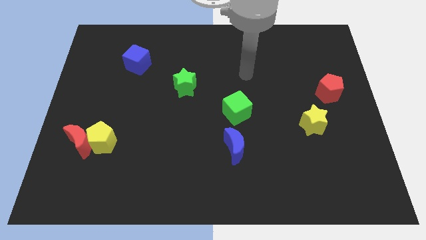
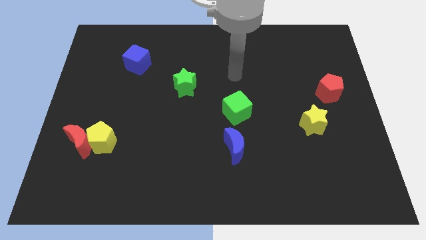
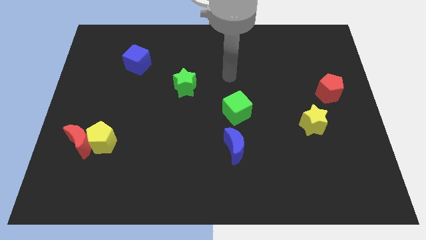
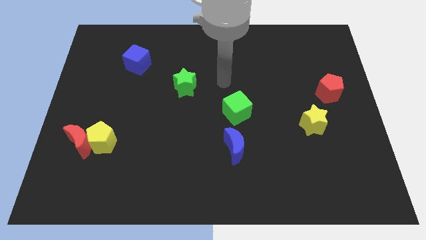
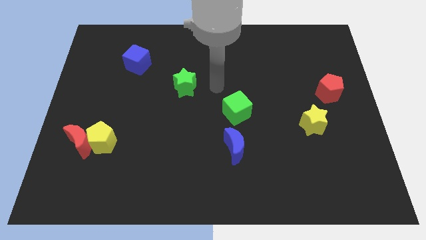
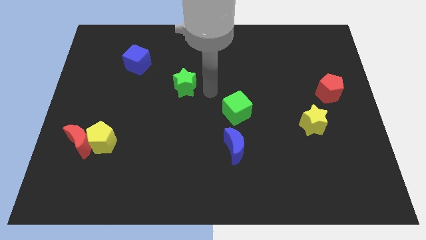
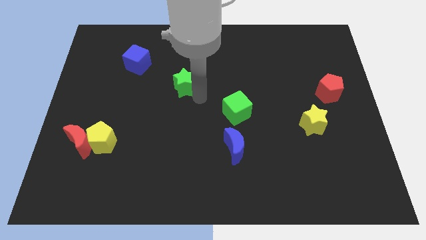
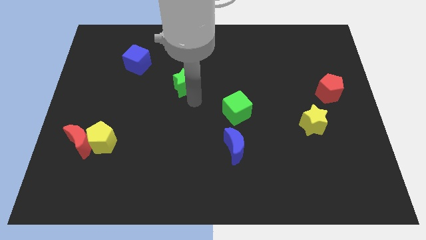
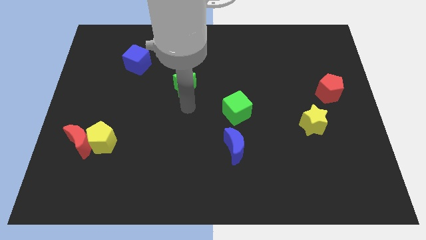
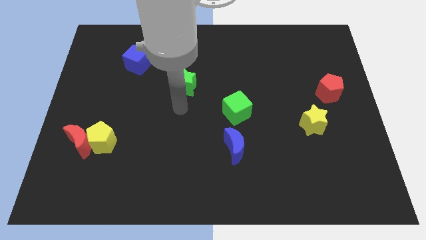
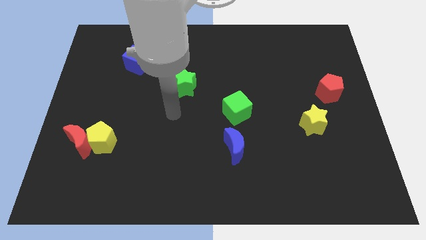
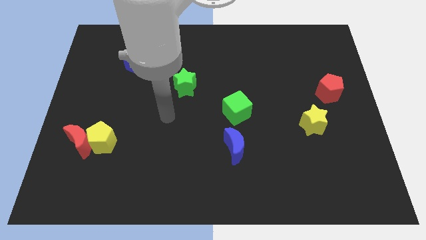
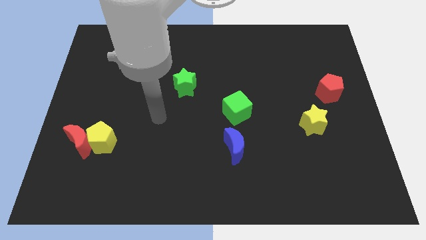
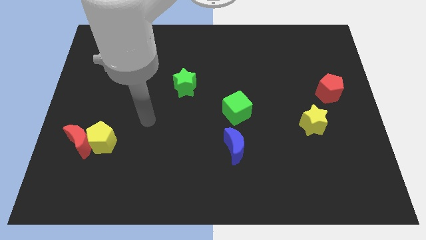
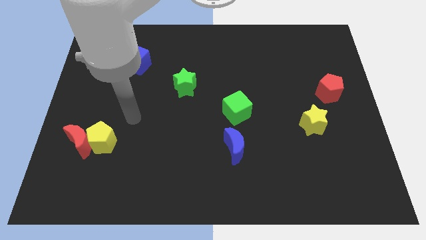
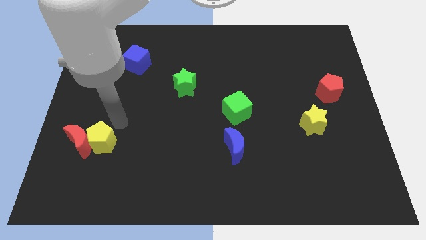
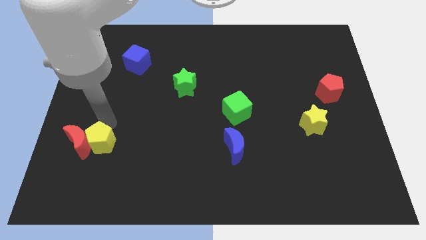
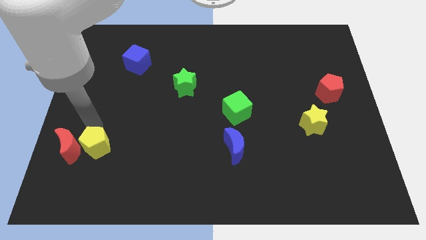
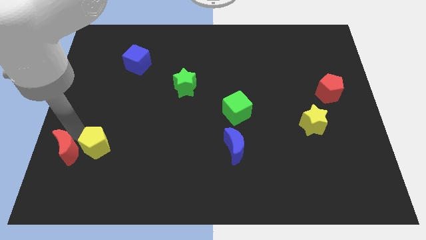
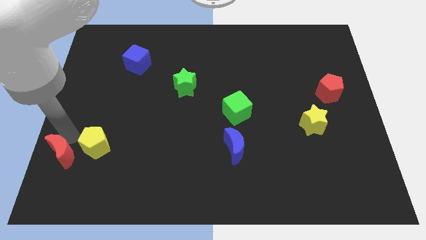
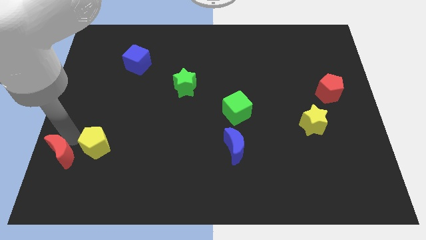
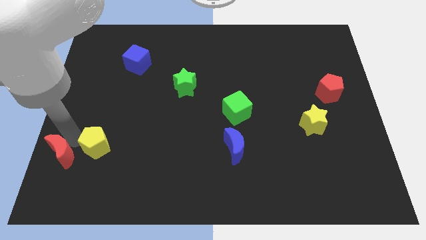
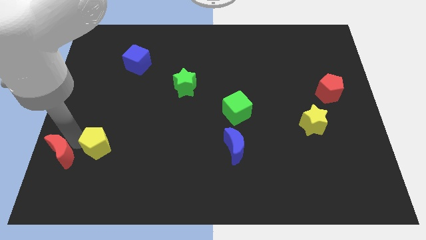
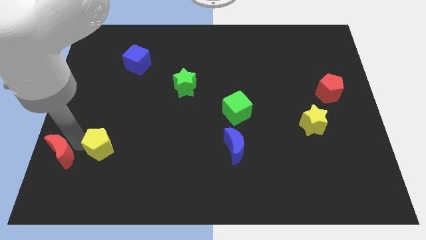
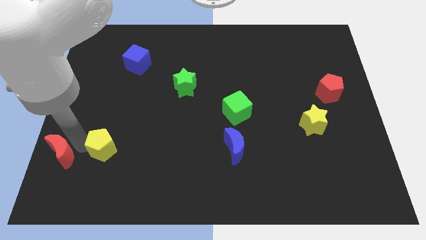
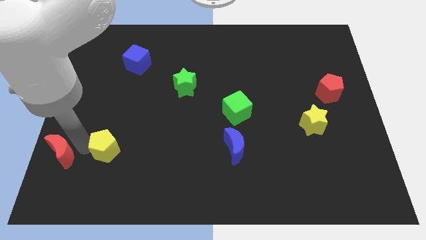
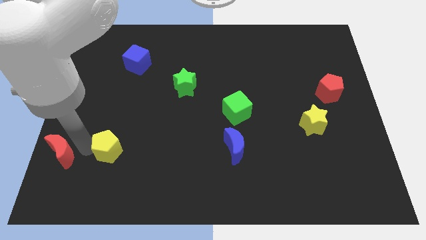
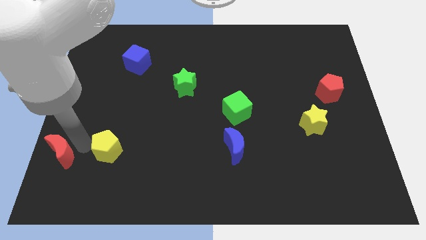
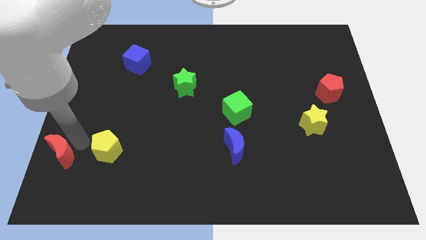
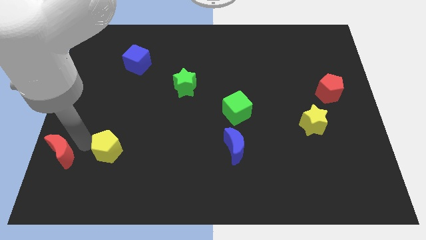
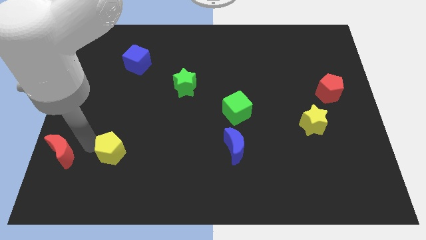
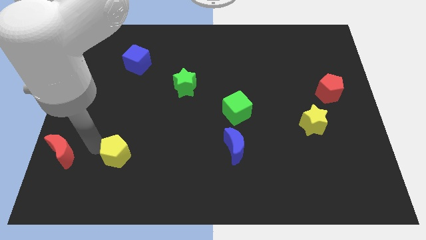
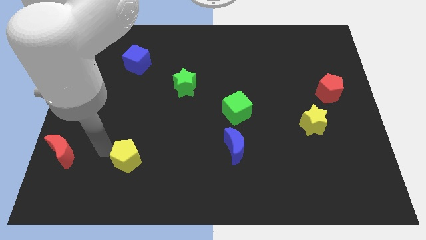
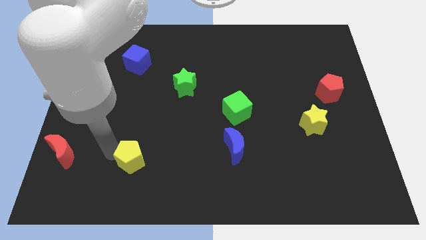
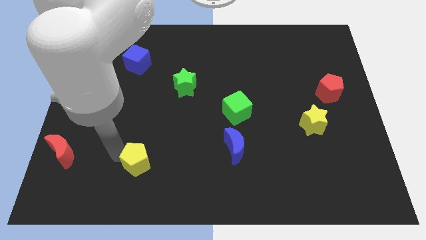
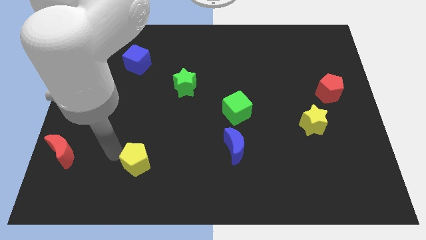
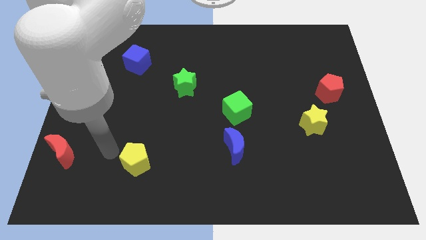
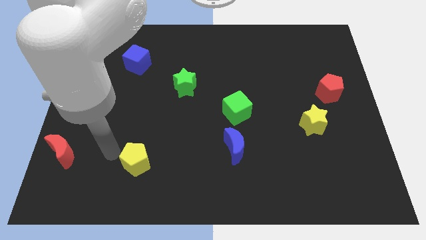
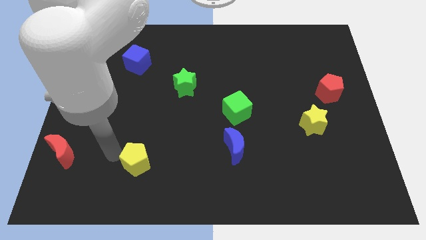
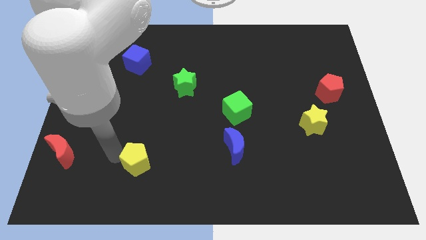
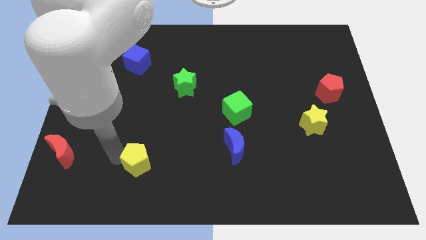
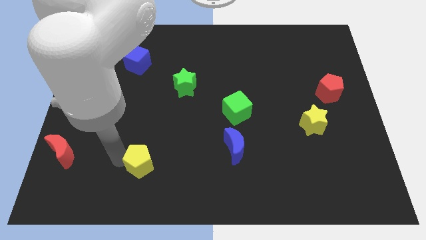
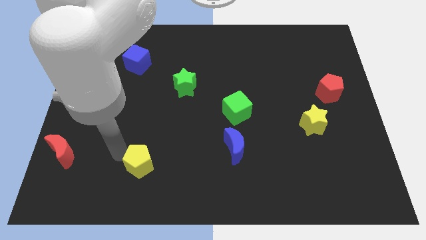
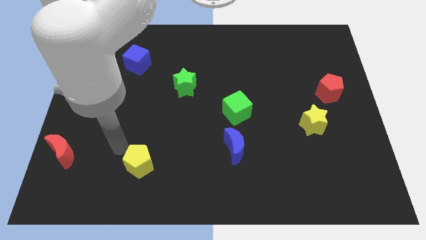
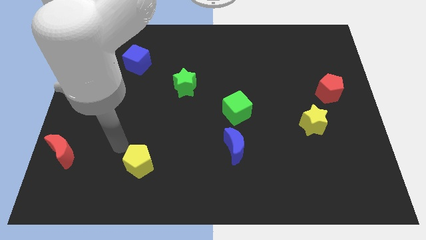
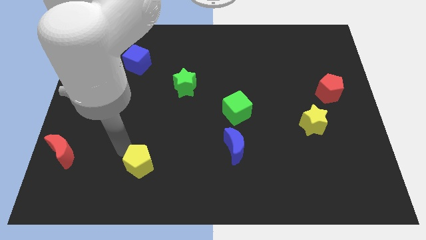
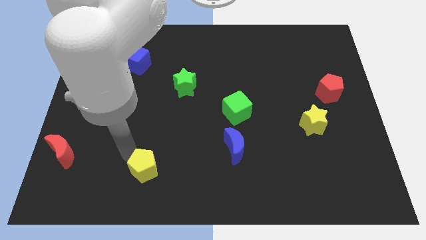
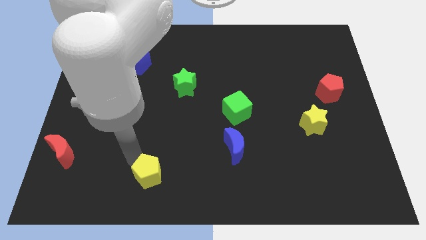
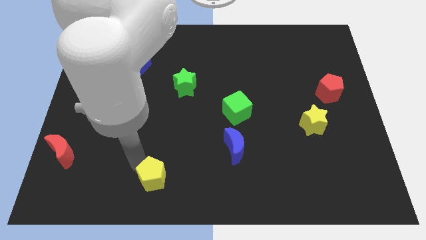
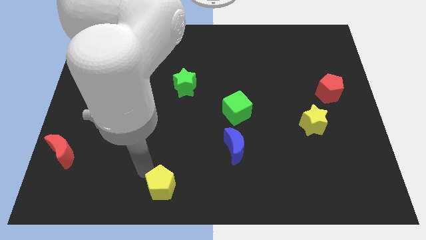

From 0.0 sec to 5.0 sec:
slide the yellow pentagon to the bottom

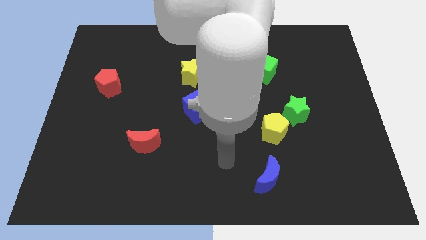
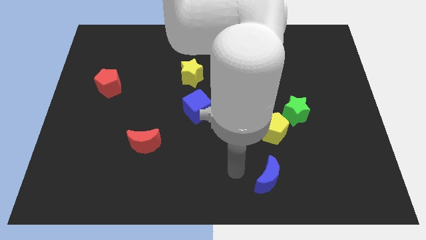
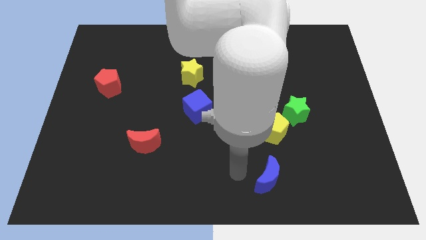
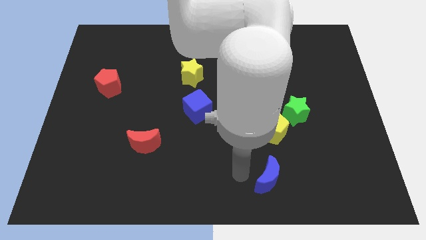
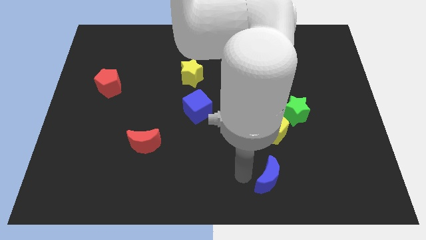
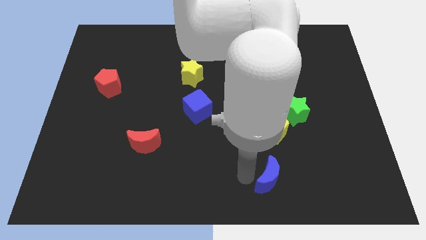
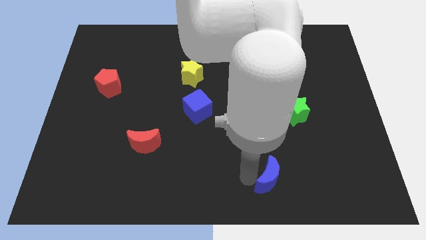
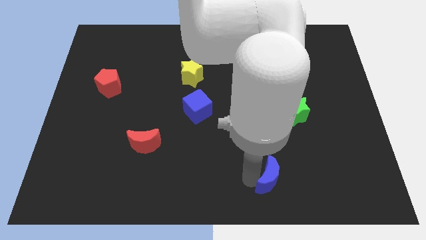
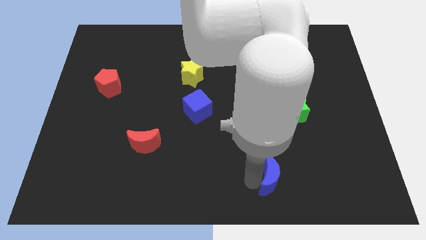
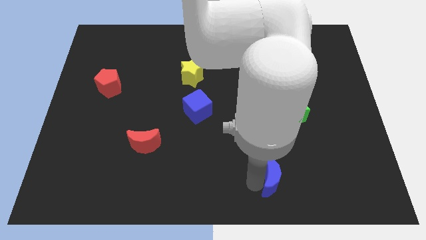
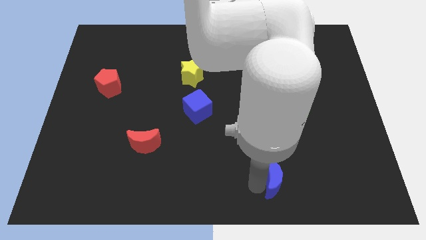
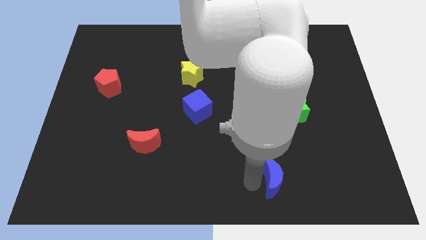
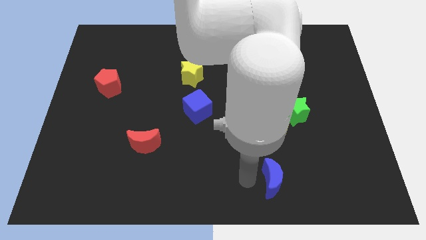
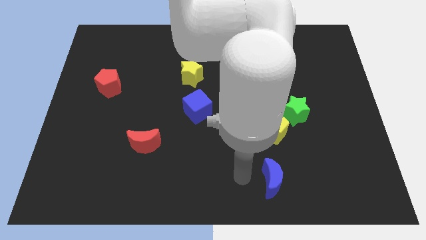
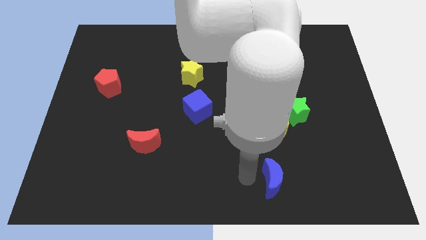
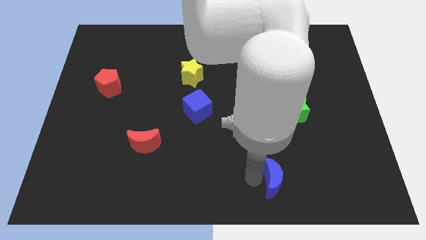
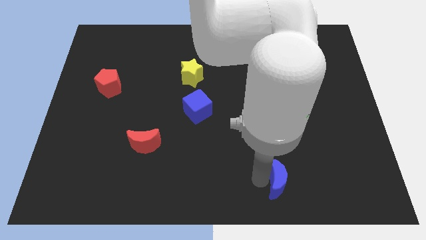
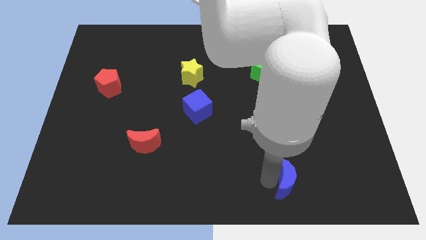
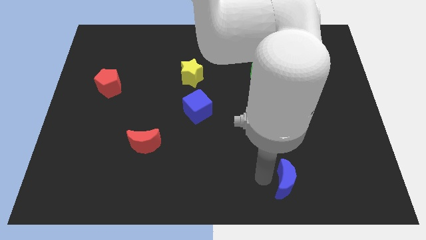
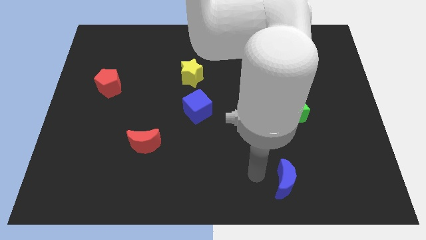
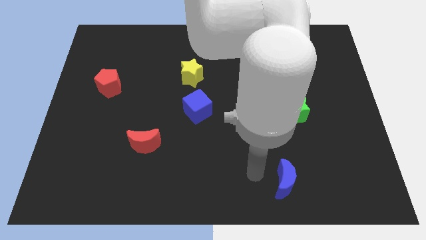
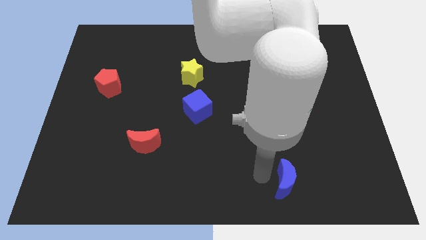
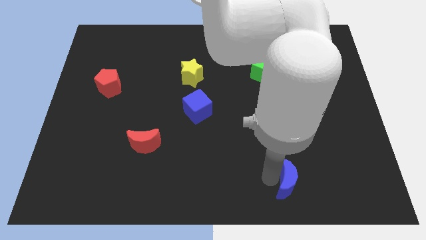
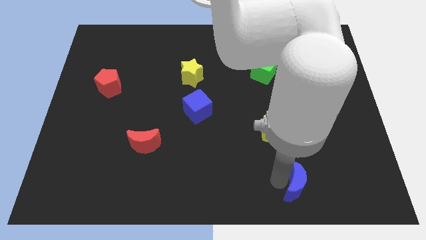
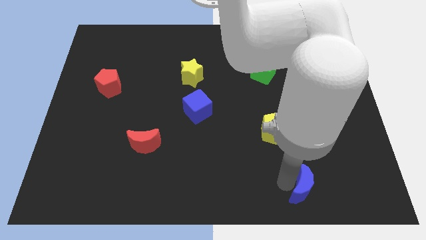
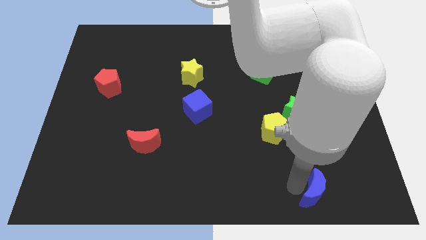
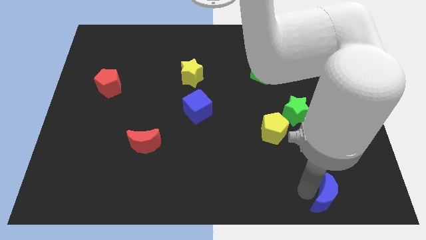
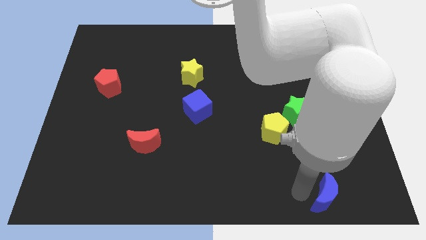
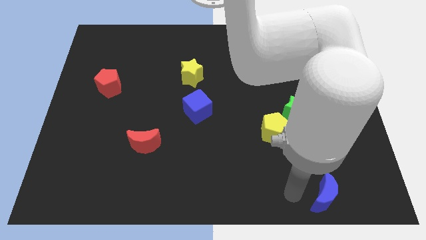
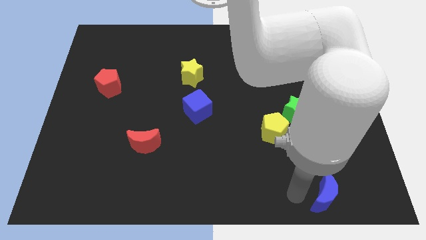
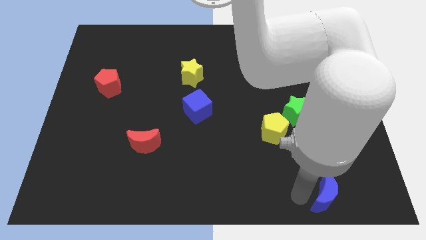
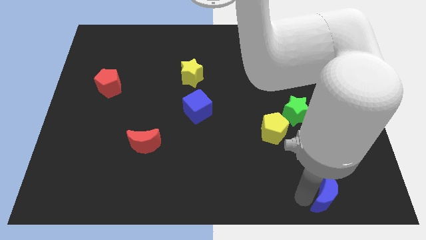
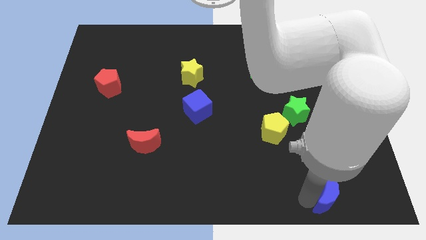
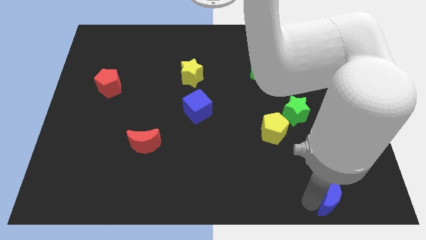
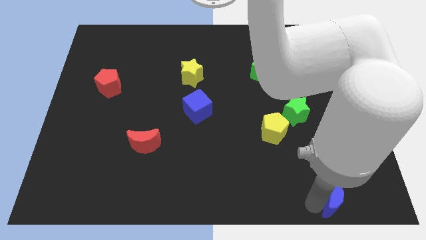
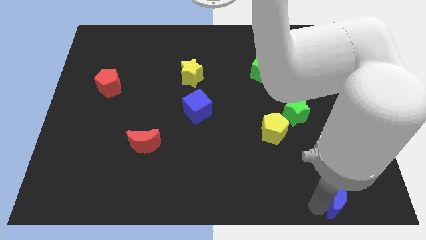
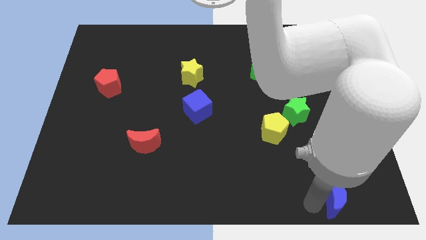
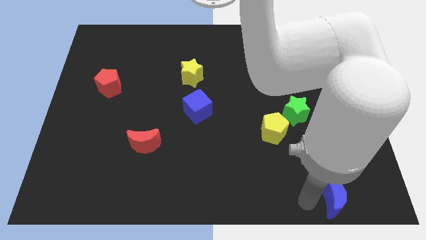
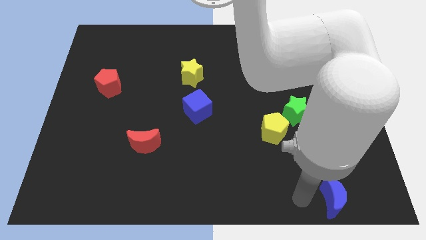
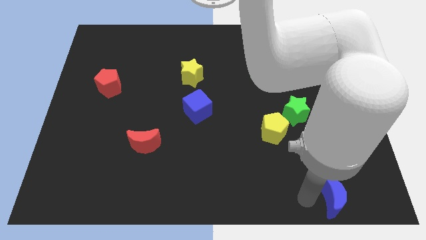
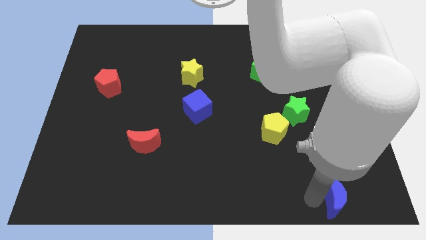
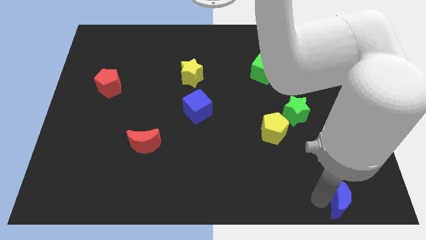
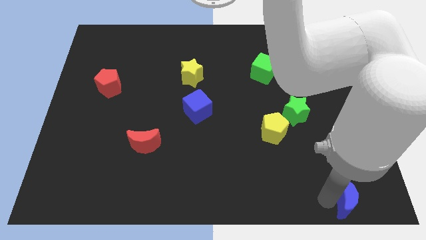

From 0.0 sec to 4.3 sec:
slide the blue moon to the bottom right
